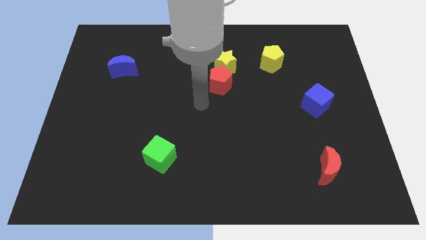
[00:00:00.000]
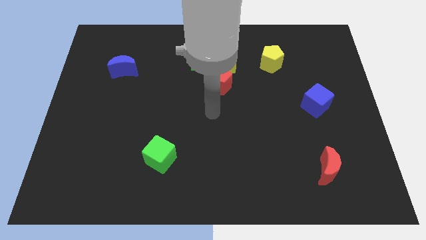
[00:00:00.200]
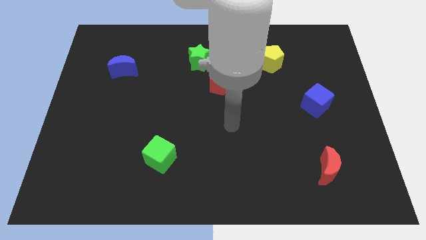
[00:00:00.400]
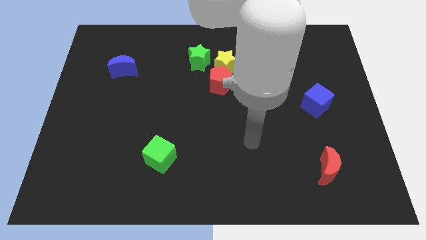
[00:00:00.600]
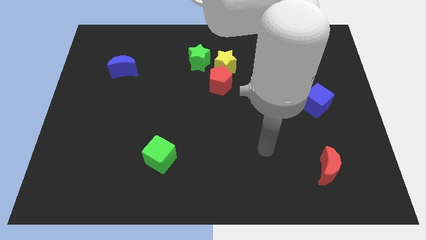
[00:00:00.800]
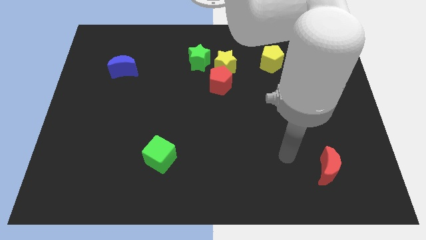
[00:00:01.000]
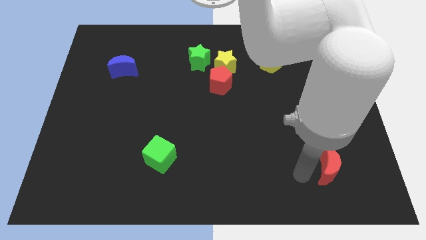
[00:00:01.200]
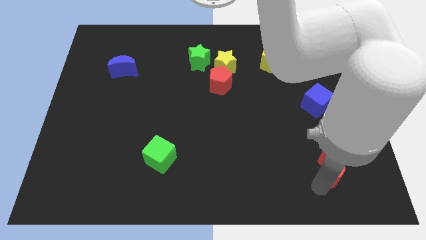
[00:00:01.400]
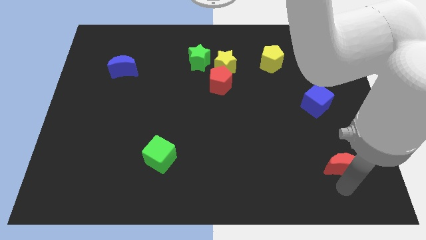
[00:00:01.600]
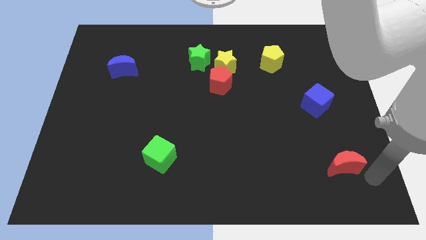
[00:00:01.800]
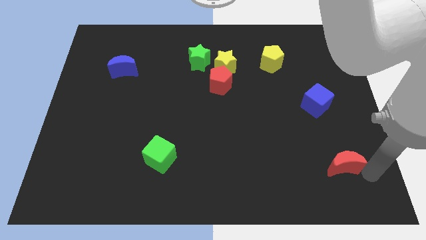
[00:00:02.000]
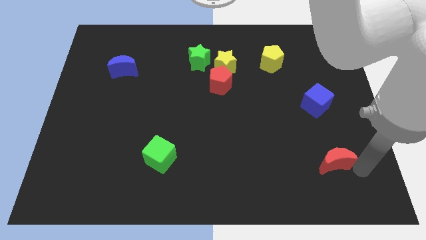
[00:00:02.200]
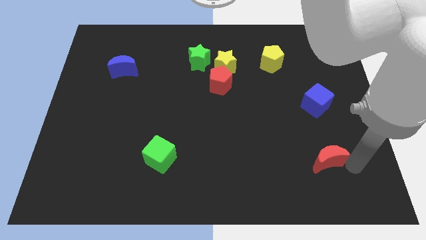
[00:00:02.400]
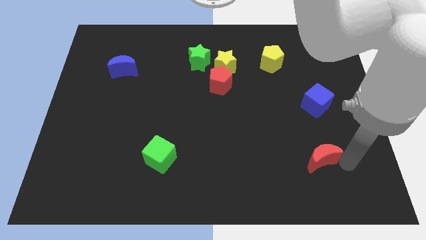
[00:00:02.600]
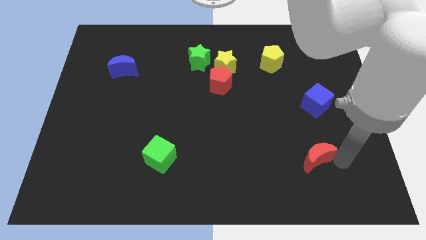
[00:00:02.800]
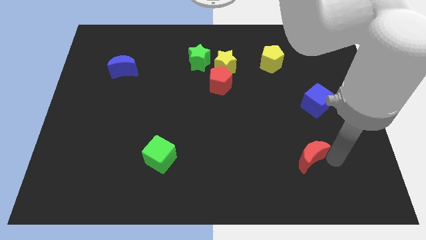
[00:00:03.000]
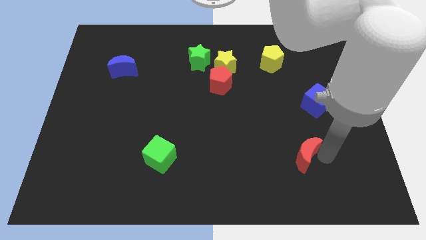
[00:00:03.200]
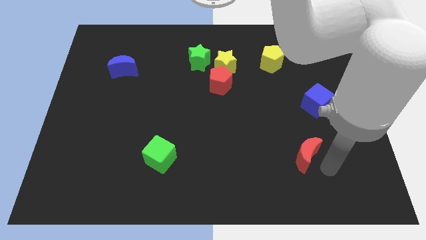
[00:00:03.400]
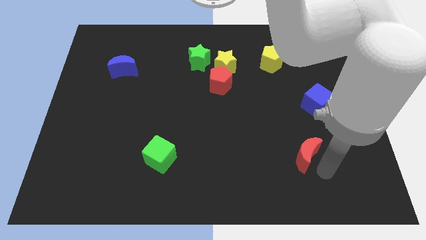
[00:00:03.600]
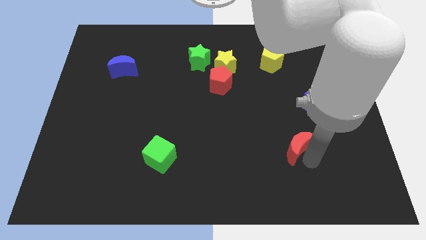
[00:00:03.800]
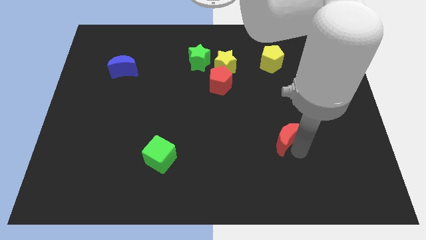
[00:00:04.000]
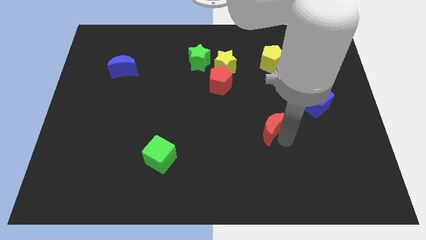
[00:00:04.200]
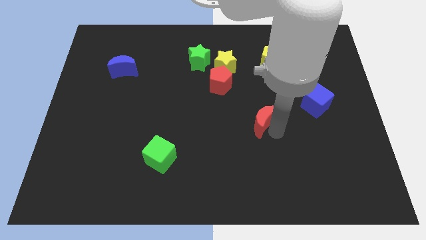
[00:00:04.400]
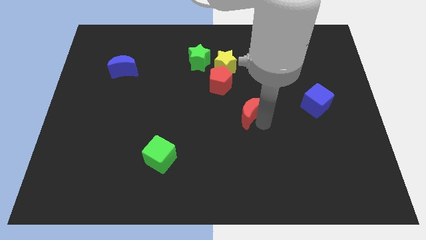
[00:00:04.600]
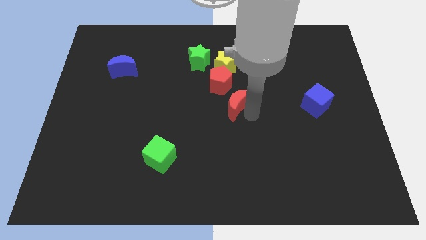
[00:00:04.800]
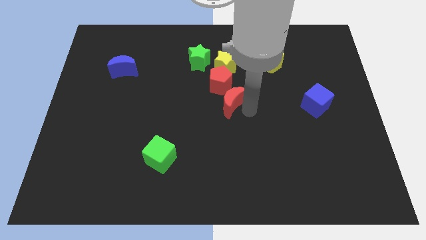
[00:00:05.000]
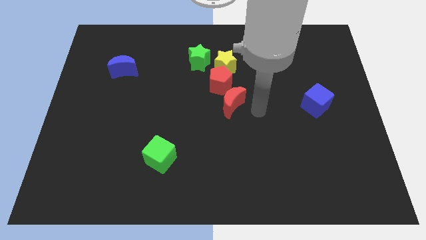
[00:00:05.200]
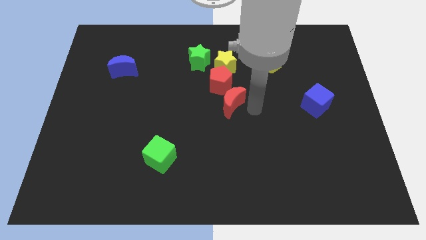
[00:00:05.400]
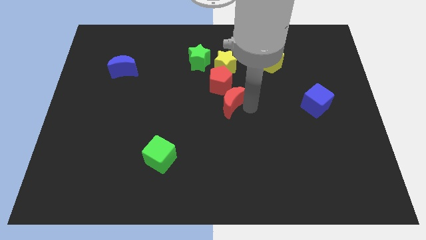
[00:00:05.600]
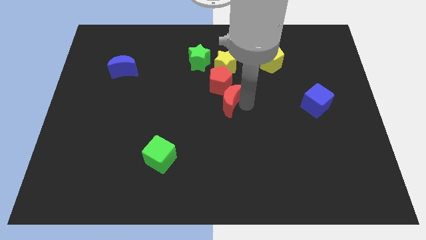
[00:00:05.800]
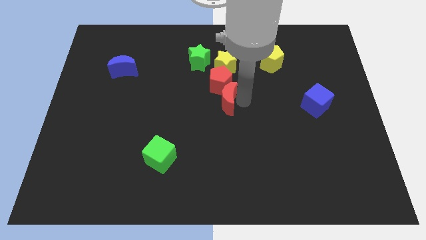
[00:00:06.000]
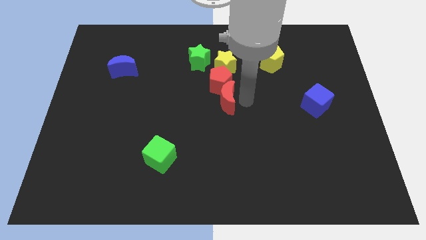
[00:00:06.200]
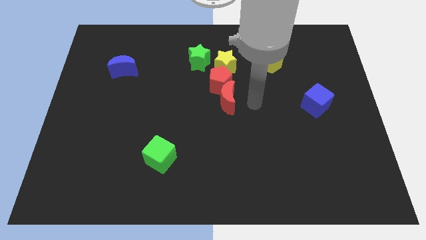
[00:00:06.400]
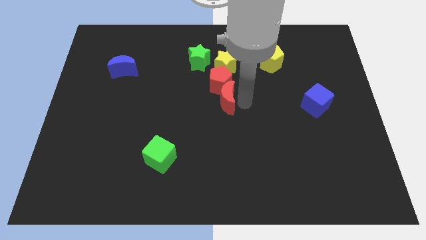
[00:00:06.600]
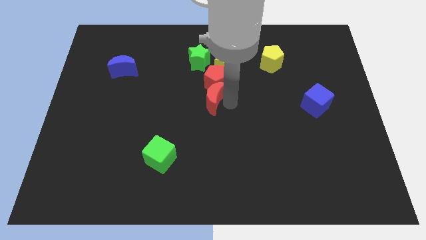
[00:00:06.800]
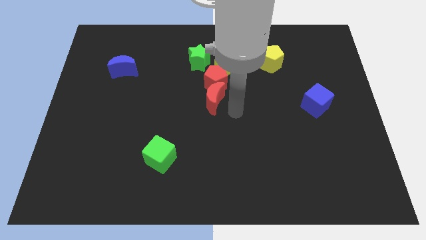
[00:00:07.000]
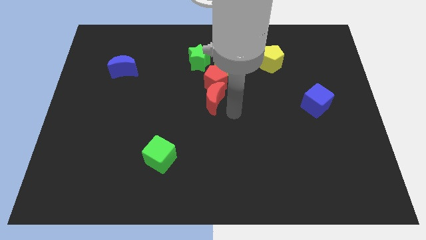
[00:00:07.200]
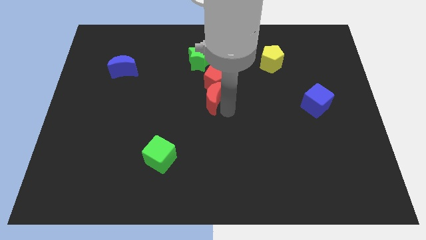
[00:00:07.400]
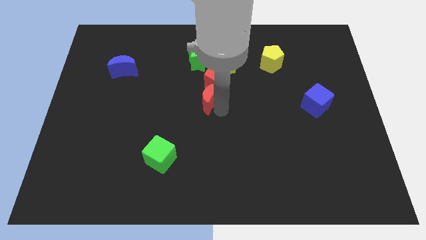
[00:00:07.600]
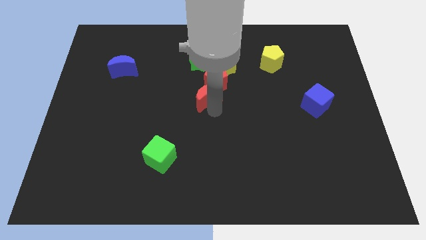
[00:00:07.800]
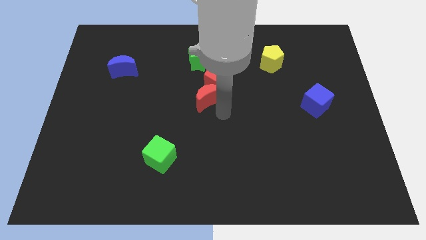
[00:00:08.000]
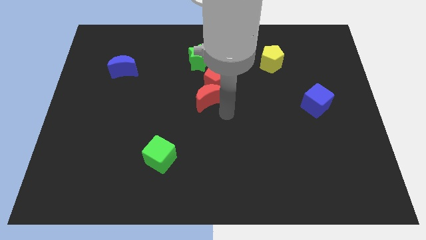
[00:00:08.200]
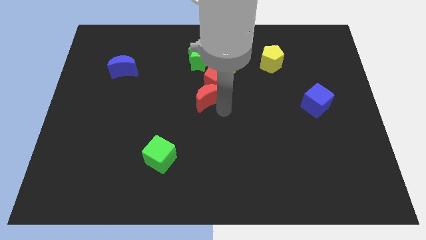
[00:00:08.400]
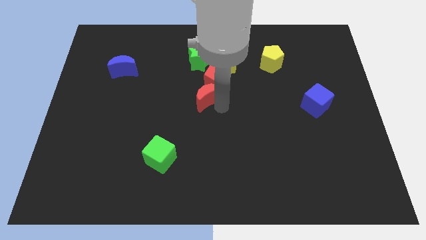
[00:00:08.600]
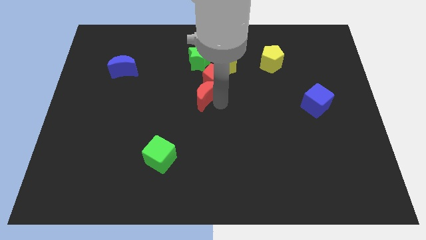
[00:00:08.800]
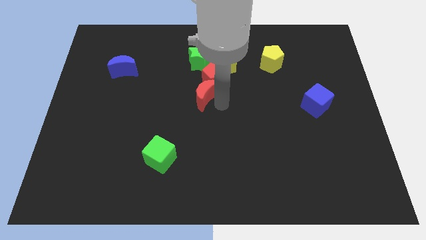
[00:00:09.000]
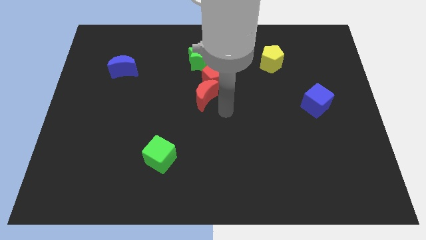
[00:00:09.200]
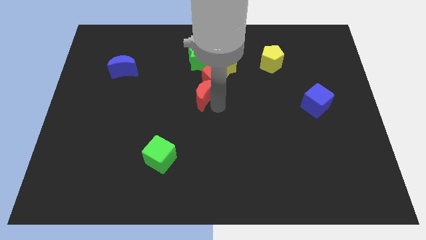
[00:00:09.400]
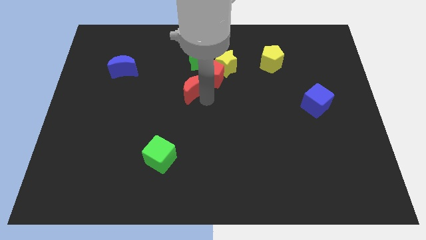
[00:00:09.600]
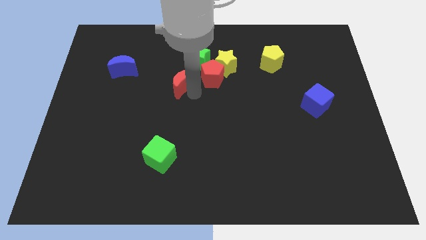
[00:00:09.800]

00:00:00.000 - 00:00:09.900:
slide the red moon to the bottom left side of the green star

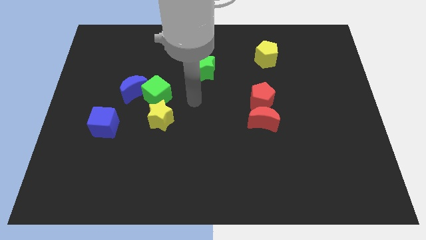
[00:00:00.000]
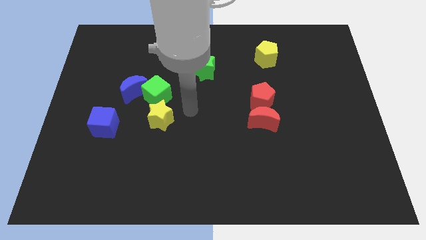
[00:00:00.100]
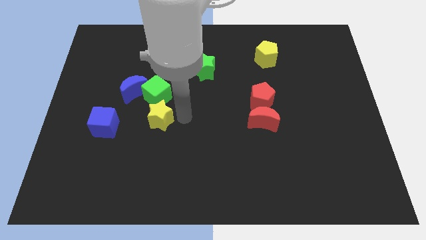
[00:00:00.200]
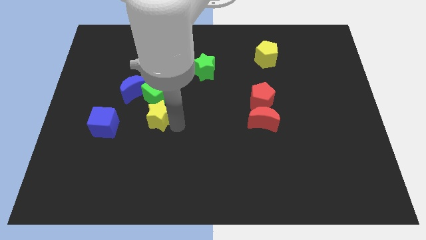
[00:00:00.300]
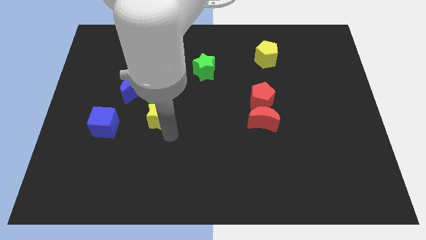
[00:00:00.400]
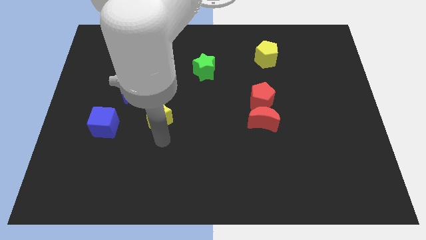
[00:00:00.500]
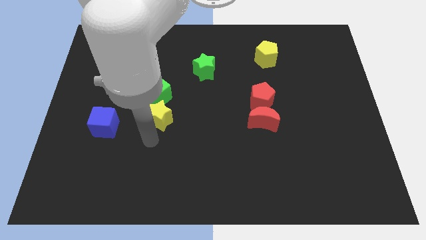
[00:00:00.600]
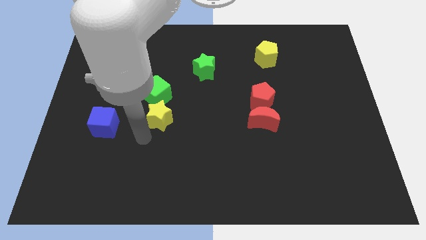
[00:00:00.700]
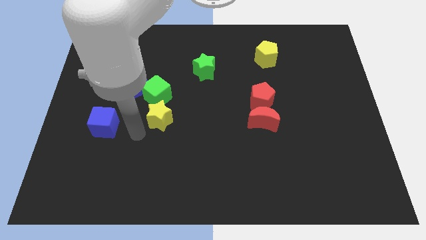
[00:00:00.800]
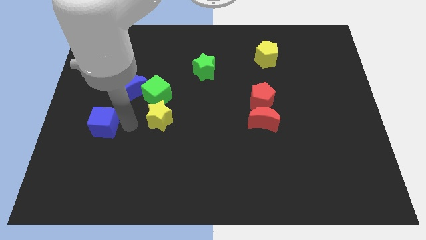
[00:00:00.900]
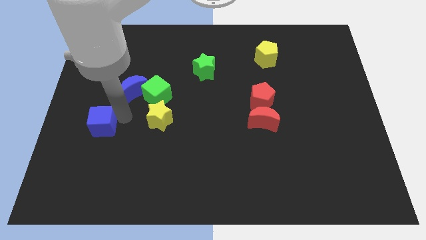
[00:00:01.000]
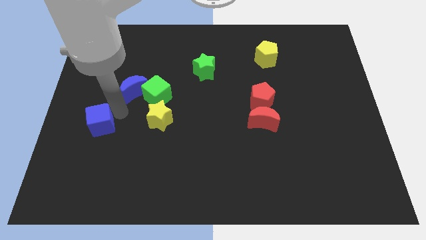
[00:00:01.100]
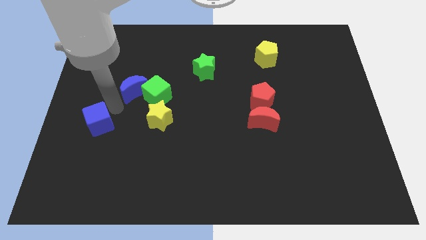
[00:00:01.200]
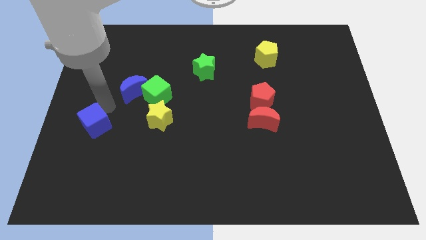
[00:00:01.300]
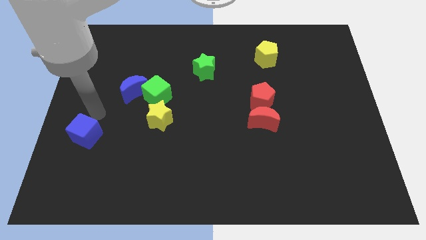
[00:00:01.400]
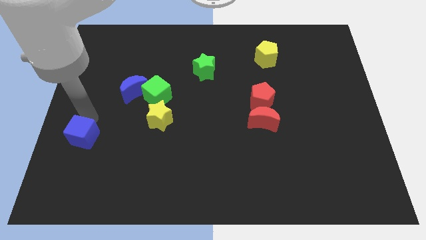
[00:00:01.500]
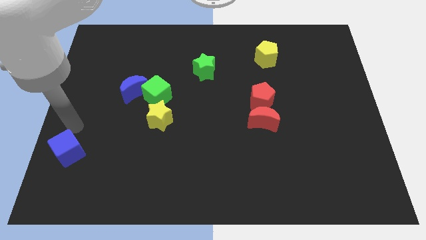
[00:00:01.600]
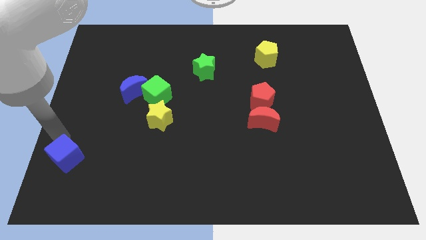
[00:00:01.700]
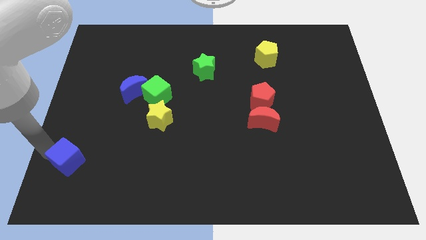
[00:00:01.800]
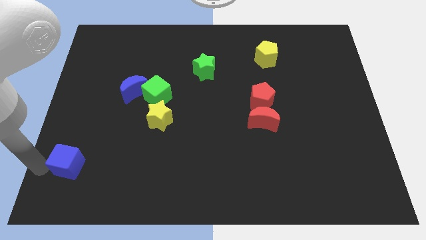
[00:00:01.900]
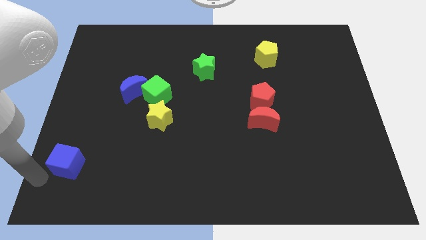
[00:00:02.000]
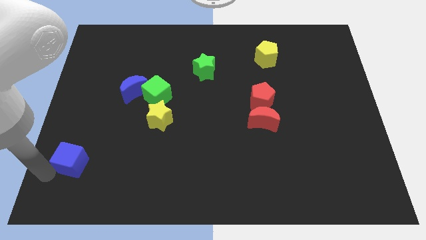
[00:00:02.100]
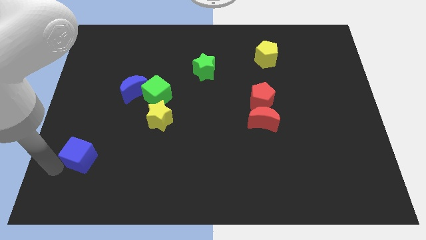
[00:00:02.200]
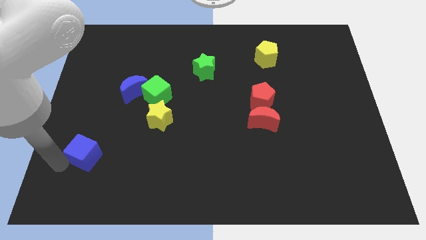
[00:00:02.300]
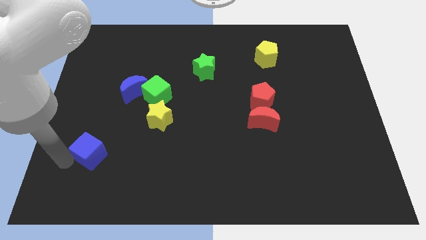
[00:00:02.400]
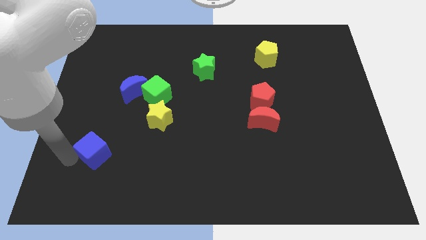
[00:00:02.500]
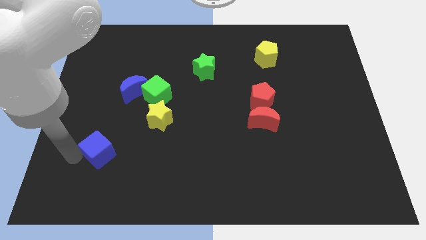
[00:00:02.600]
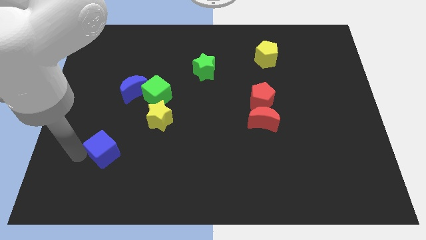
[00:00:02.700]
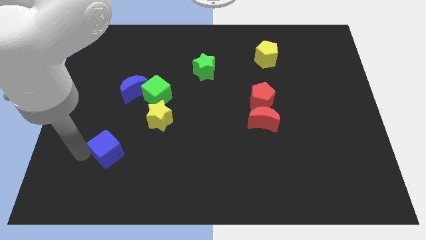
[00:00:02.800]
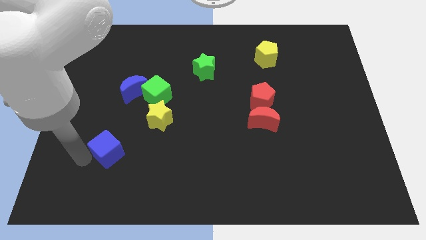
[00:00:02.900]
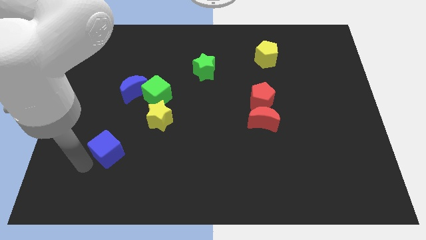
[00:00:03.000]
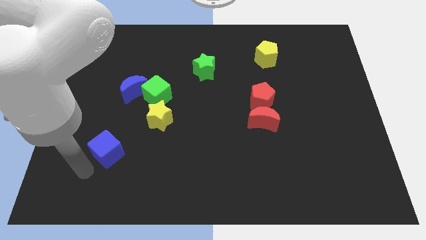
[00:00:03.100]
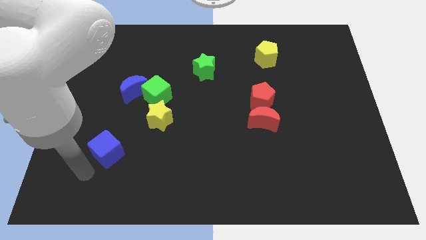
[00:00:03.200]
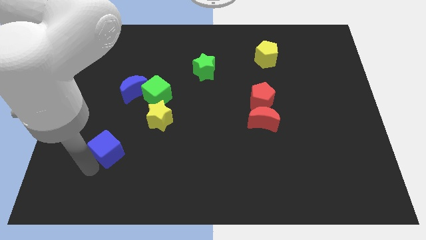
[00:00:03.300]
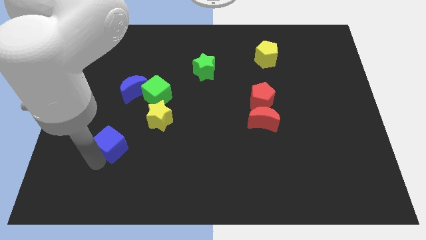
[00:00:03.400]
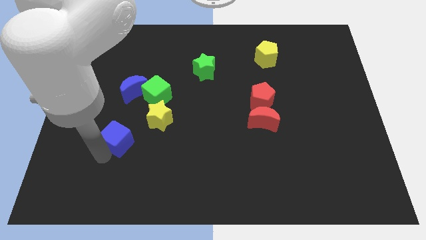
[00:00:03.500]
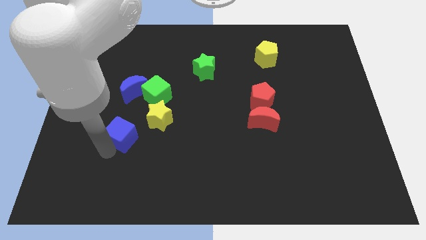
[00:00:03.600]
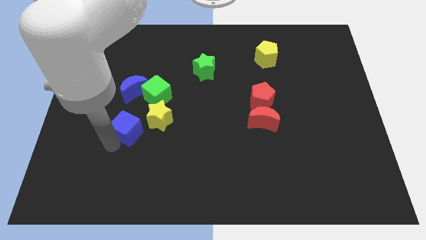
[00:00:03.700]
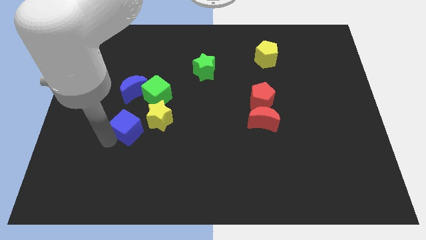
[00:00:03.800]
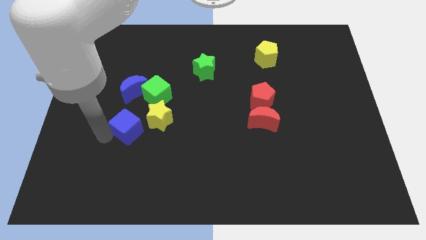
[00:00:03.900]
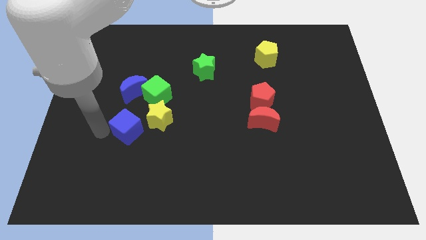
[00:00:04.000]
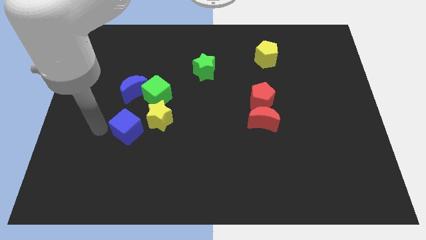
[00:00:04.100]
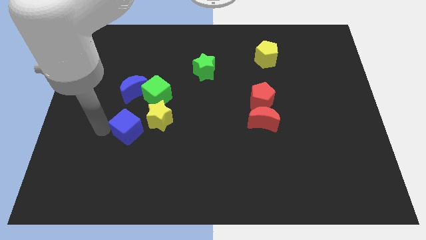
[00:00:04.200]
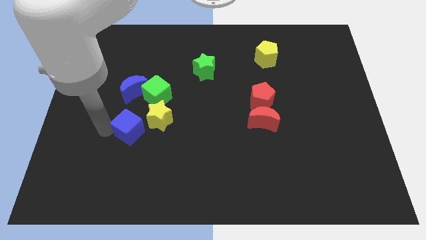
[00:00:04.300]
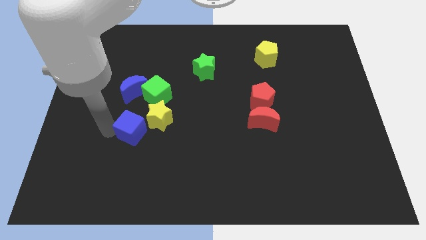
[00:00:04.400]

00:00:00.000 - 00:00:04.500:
put the blue cube to the bottom of the green cube
